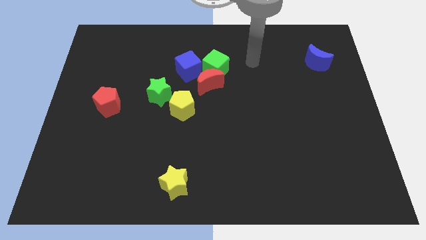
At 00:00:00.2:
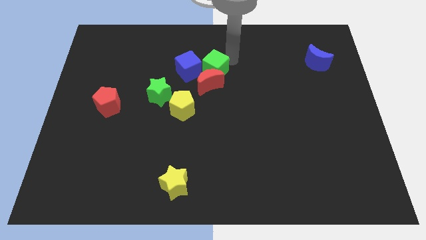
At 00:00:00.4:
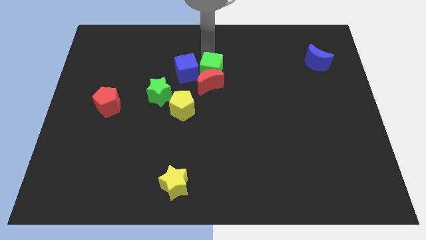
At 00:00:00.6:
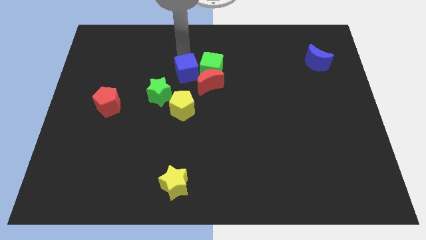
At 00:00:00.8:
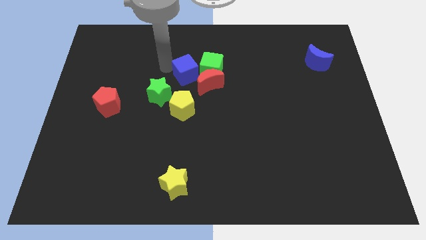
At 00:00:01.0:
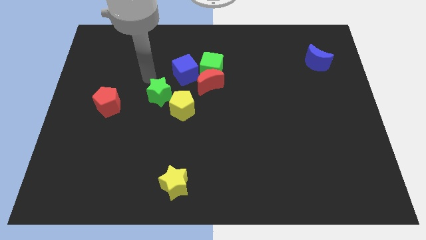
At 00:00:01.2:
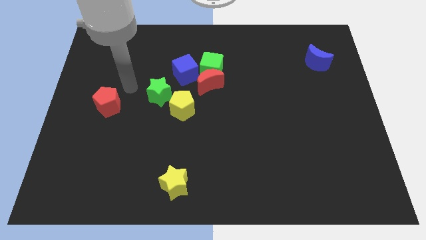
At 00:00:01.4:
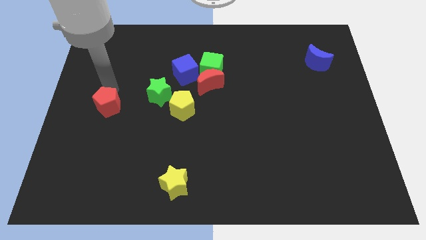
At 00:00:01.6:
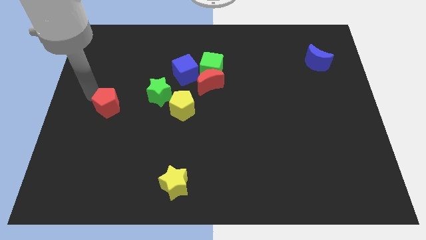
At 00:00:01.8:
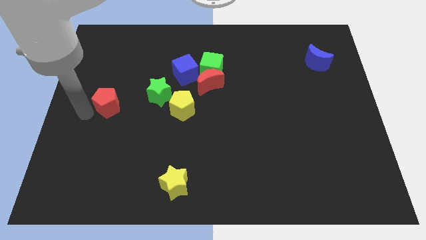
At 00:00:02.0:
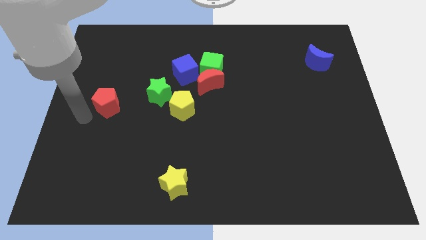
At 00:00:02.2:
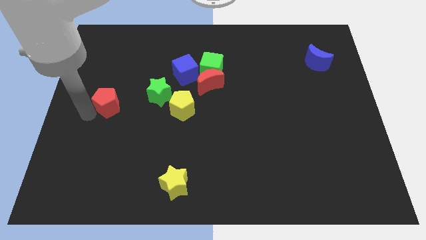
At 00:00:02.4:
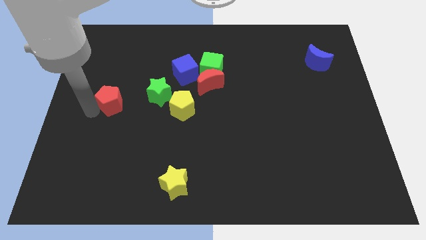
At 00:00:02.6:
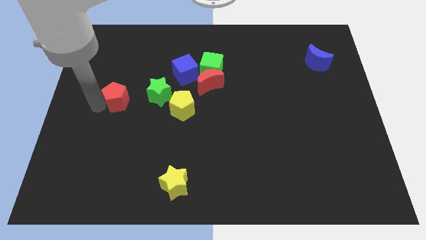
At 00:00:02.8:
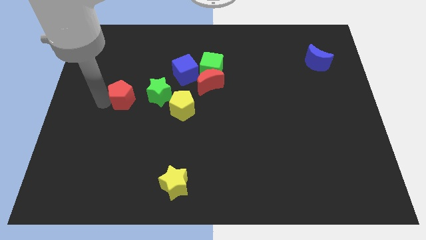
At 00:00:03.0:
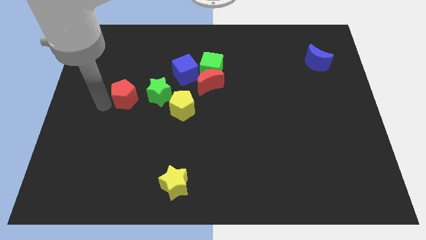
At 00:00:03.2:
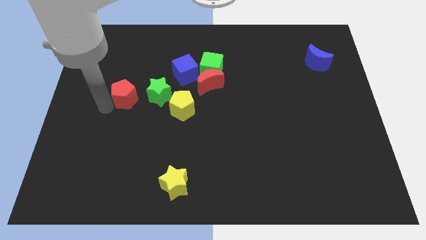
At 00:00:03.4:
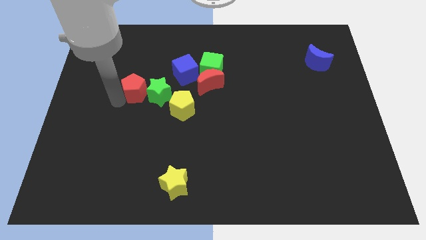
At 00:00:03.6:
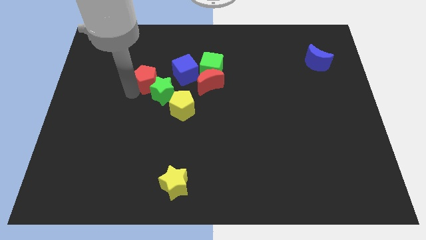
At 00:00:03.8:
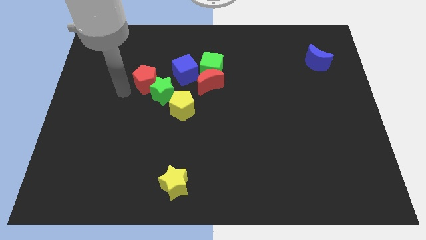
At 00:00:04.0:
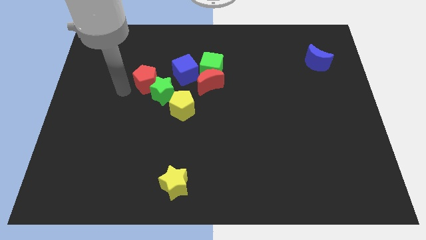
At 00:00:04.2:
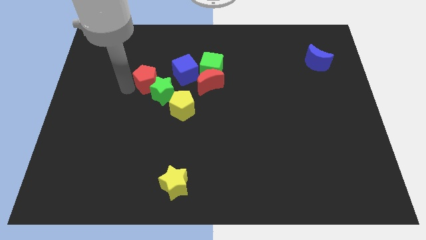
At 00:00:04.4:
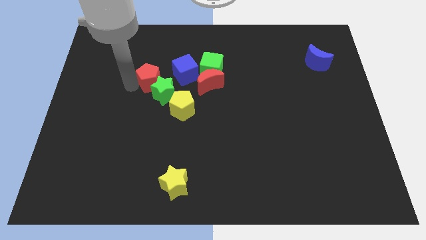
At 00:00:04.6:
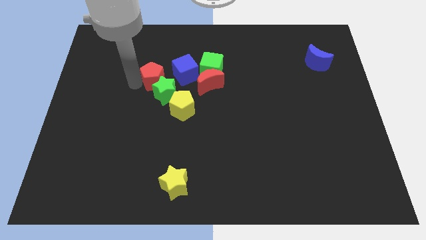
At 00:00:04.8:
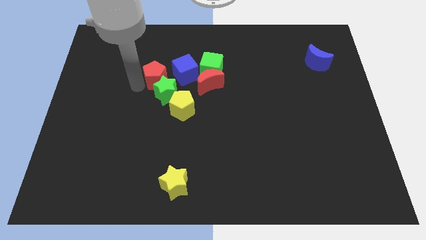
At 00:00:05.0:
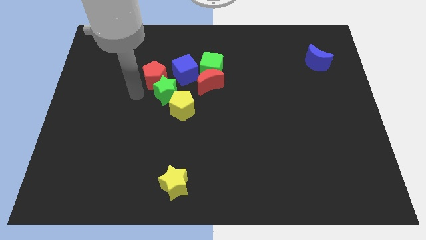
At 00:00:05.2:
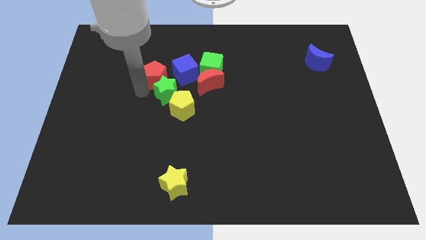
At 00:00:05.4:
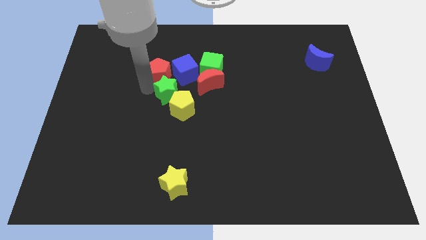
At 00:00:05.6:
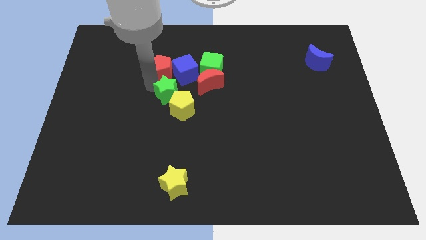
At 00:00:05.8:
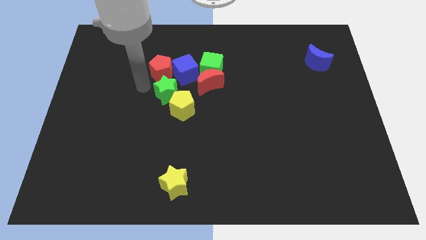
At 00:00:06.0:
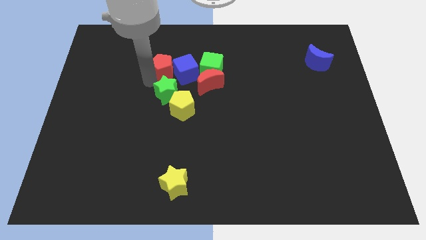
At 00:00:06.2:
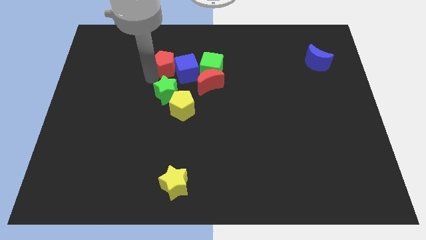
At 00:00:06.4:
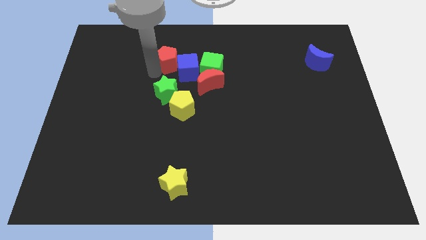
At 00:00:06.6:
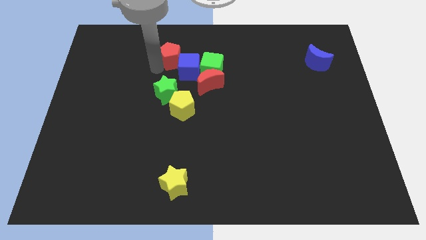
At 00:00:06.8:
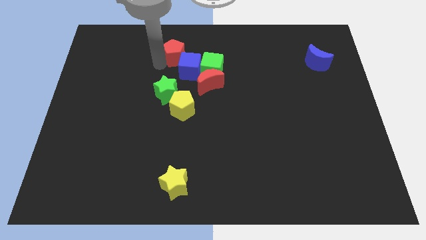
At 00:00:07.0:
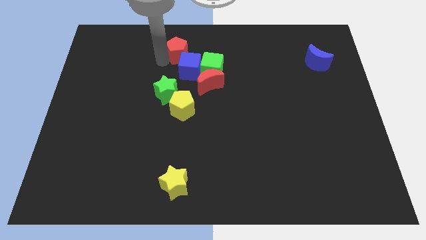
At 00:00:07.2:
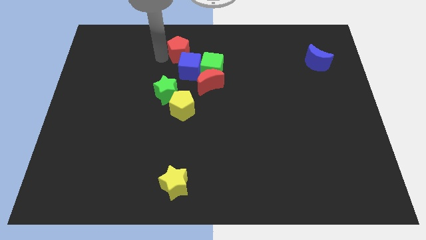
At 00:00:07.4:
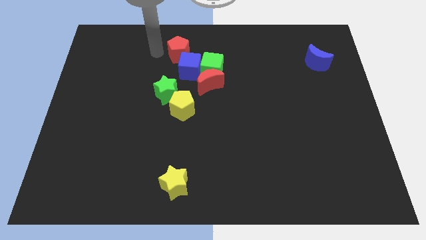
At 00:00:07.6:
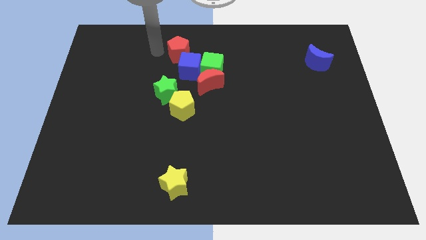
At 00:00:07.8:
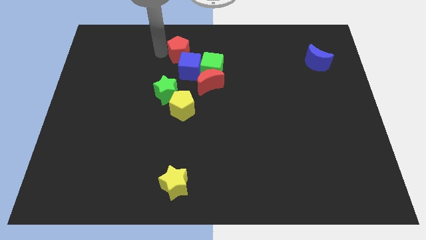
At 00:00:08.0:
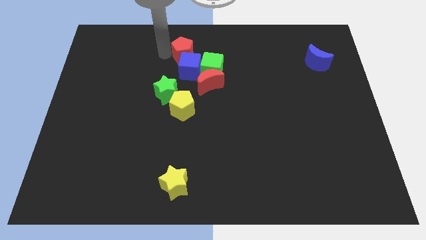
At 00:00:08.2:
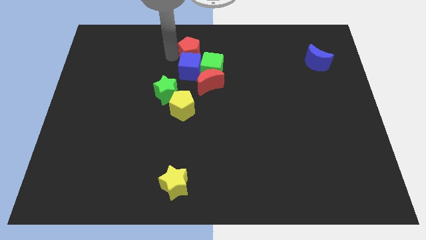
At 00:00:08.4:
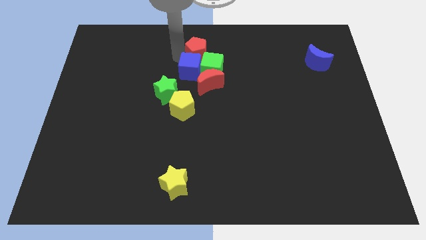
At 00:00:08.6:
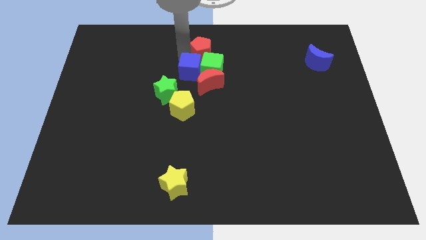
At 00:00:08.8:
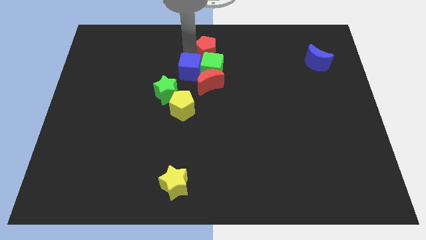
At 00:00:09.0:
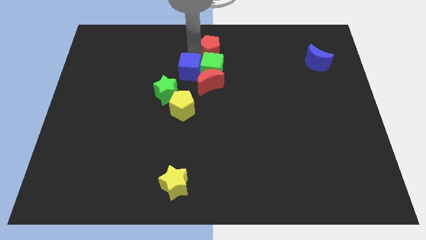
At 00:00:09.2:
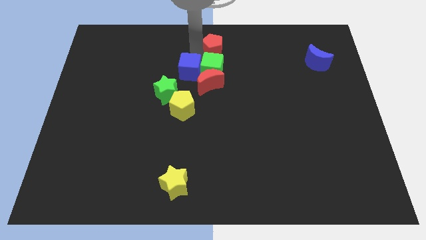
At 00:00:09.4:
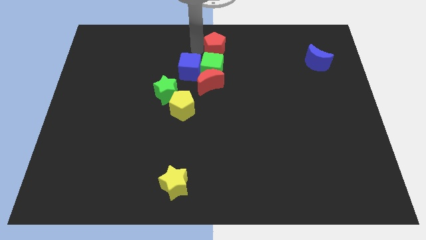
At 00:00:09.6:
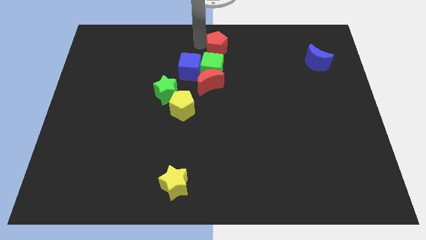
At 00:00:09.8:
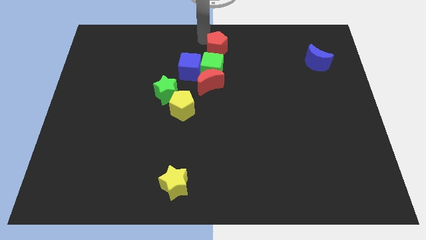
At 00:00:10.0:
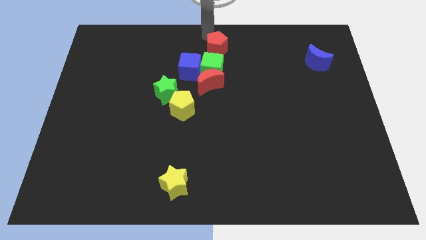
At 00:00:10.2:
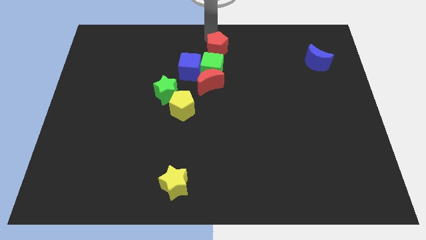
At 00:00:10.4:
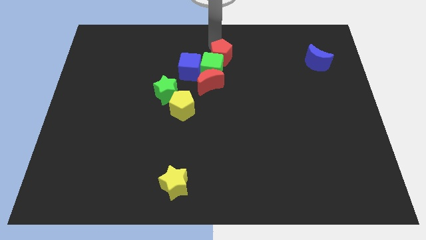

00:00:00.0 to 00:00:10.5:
push the red pentagon to the top right side of the red moon

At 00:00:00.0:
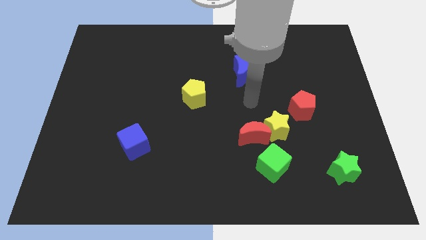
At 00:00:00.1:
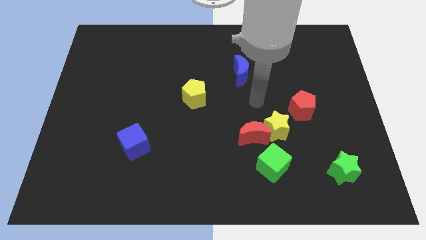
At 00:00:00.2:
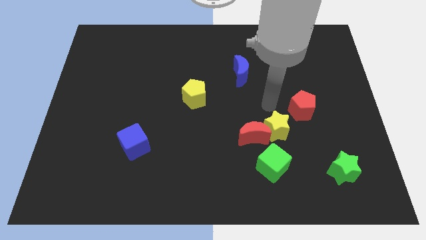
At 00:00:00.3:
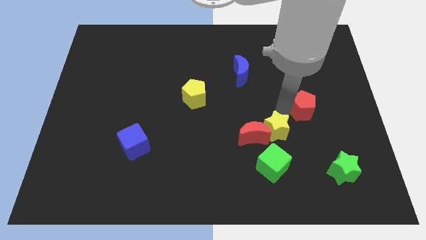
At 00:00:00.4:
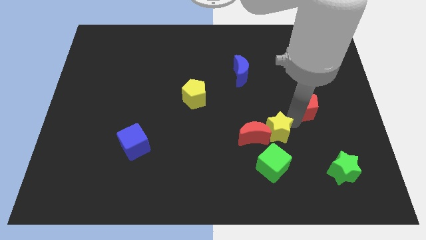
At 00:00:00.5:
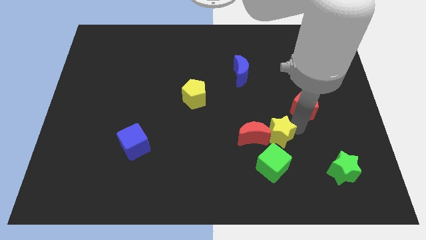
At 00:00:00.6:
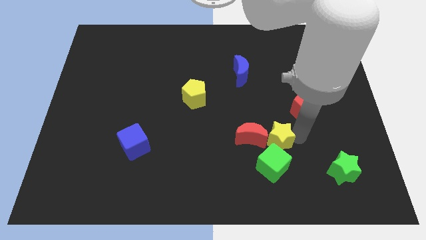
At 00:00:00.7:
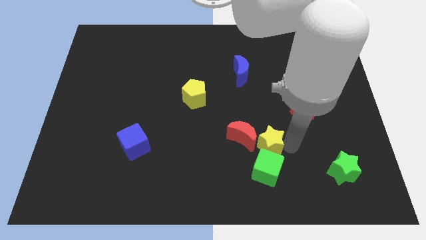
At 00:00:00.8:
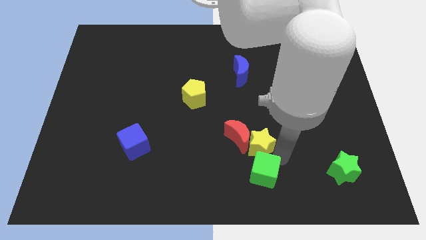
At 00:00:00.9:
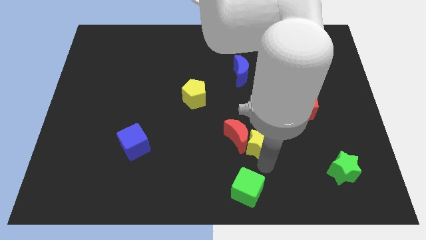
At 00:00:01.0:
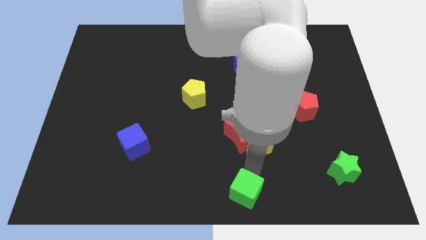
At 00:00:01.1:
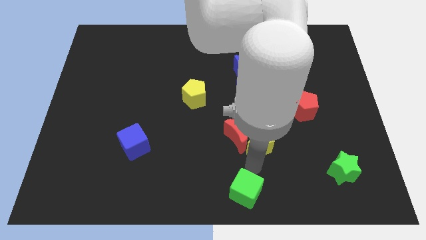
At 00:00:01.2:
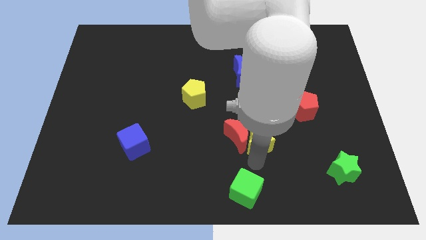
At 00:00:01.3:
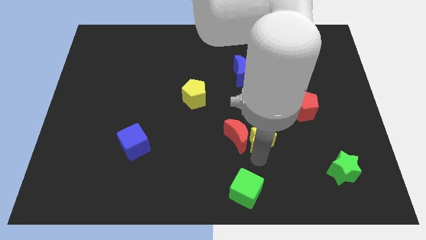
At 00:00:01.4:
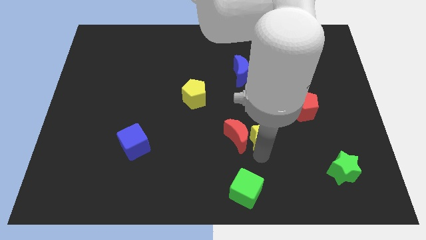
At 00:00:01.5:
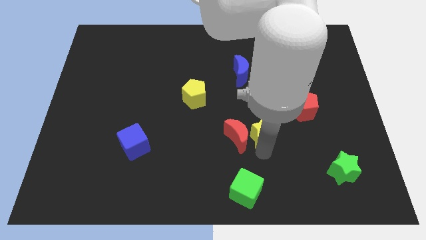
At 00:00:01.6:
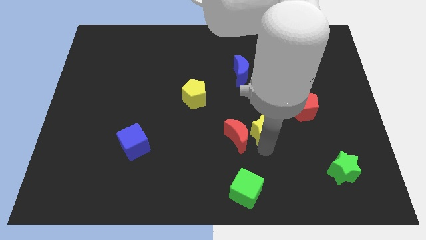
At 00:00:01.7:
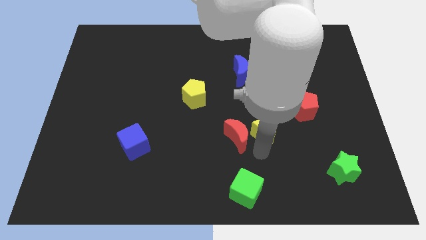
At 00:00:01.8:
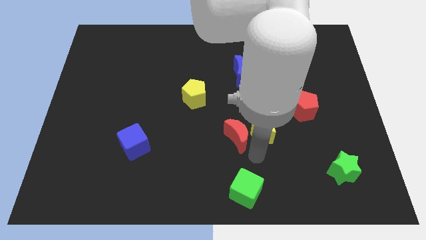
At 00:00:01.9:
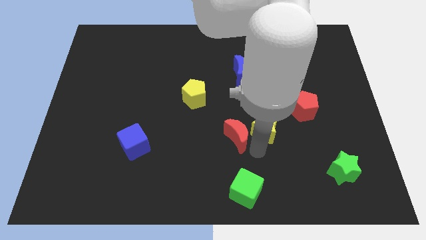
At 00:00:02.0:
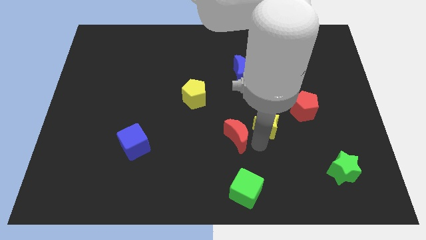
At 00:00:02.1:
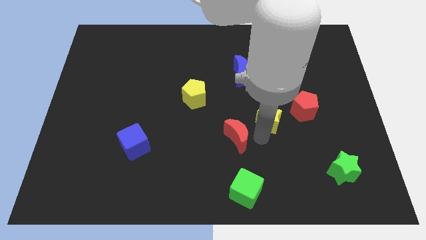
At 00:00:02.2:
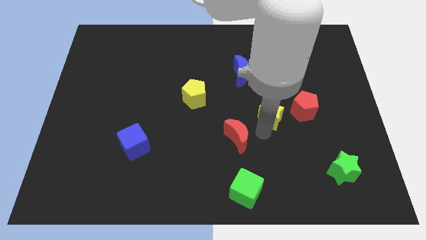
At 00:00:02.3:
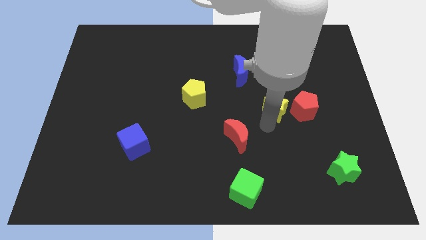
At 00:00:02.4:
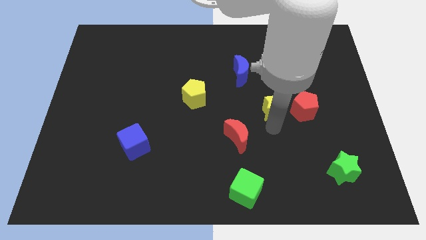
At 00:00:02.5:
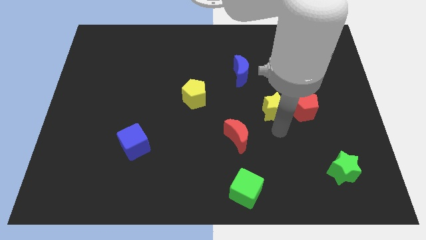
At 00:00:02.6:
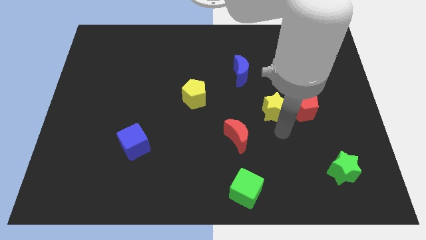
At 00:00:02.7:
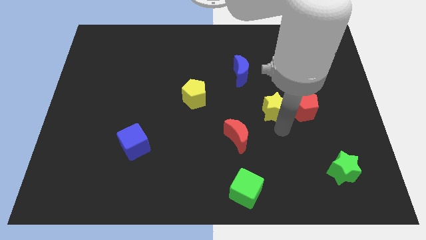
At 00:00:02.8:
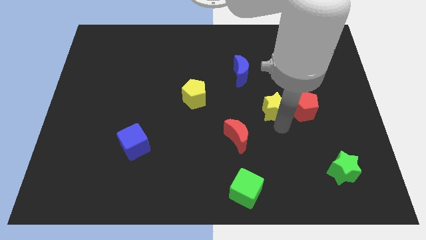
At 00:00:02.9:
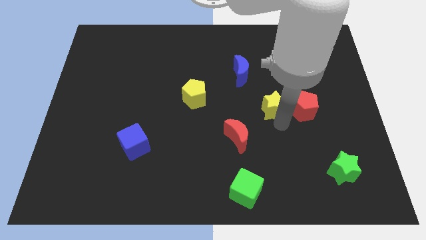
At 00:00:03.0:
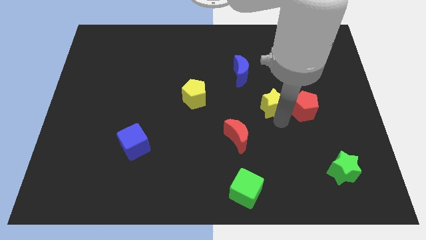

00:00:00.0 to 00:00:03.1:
slide the yellow star to the bottom right of the blue moon
